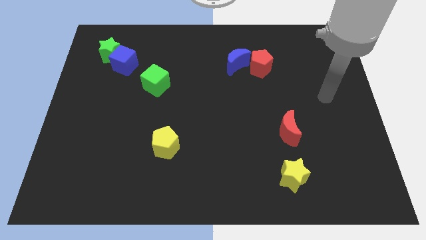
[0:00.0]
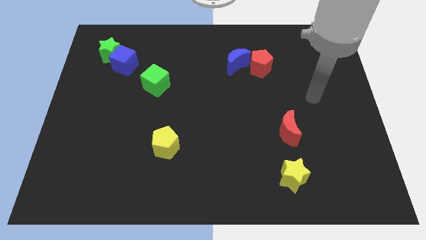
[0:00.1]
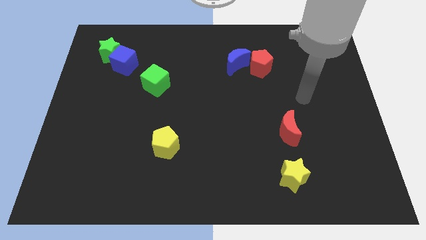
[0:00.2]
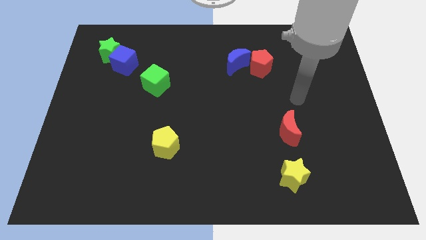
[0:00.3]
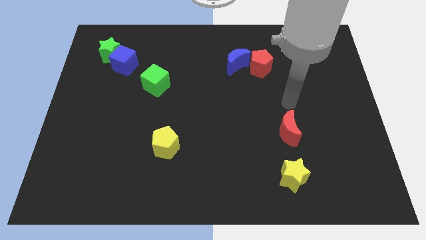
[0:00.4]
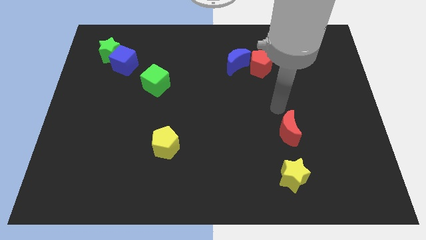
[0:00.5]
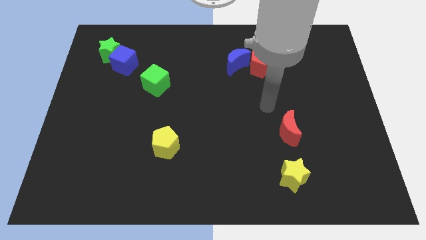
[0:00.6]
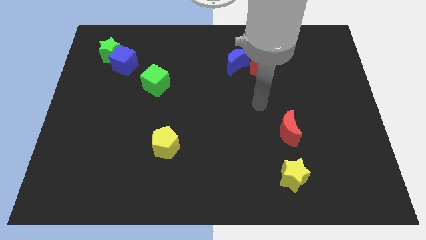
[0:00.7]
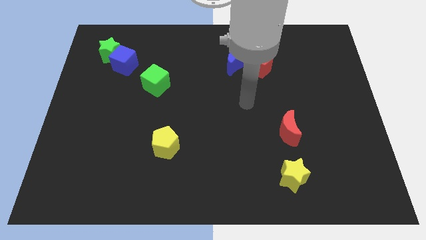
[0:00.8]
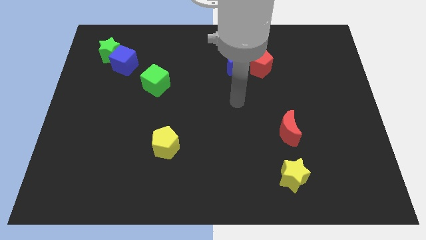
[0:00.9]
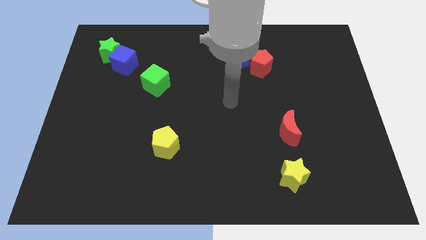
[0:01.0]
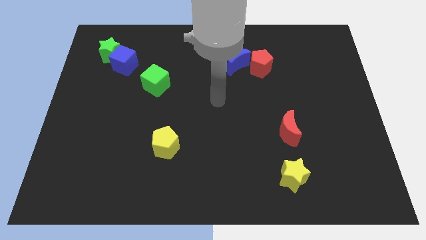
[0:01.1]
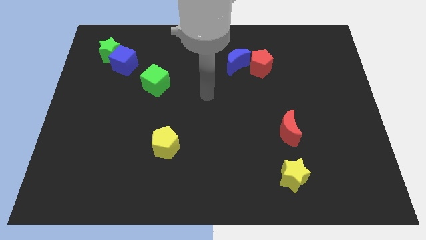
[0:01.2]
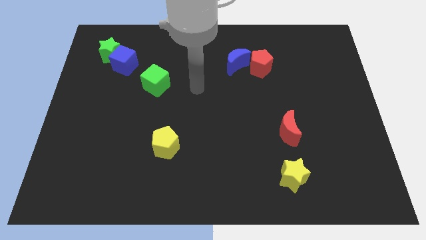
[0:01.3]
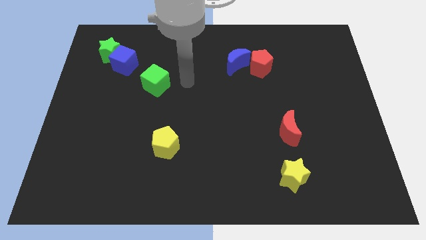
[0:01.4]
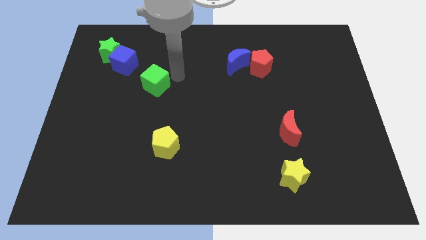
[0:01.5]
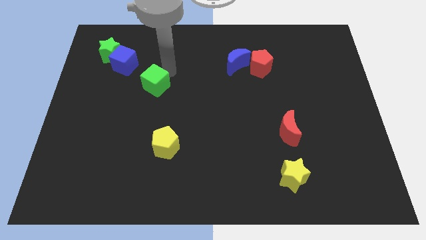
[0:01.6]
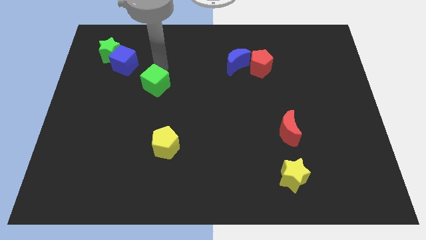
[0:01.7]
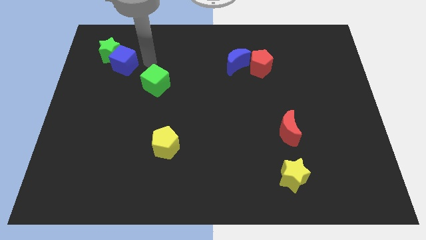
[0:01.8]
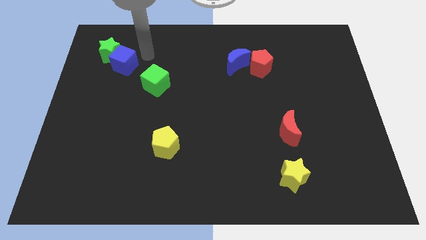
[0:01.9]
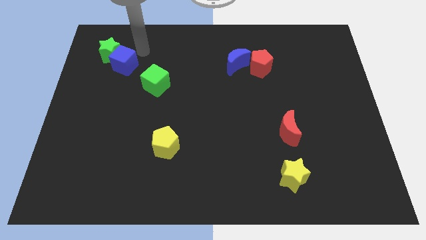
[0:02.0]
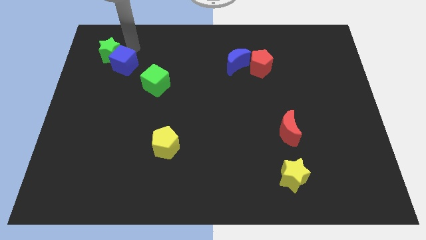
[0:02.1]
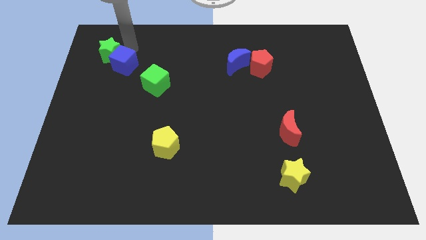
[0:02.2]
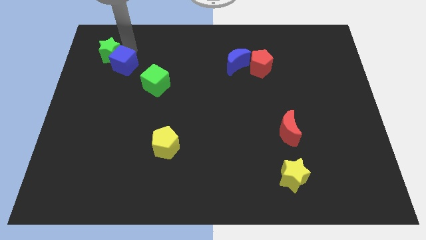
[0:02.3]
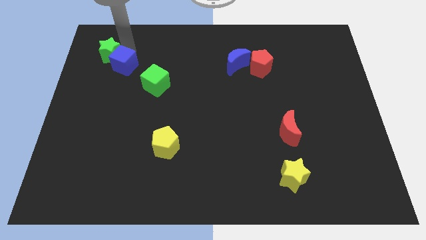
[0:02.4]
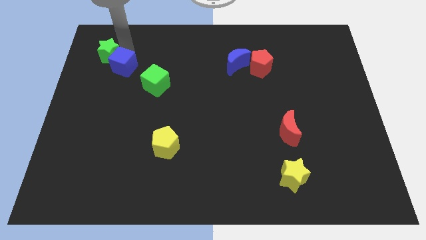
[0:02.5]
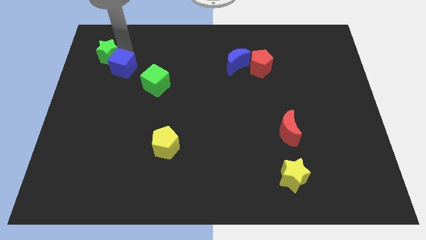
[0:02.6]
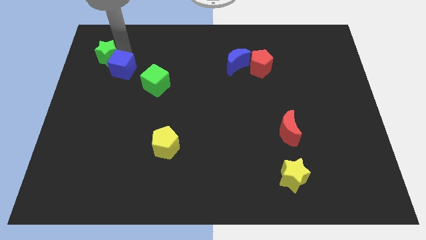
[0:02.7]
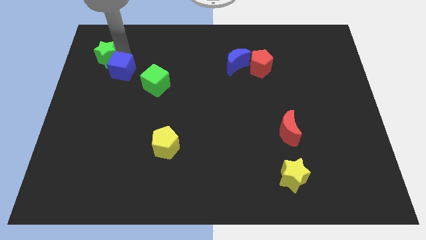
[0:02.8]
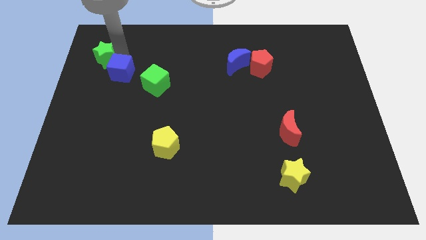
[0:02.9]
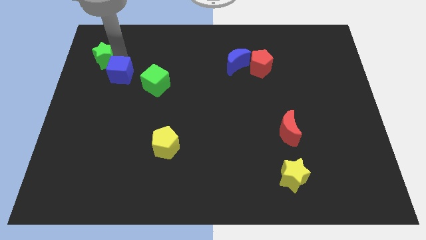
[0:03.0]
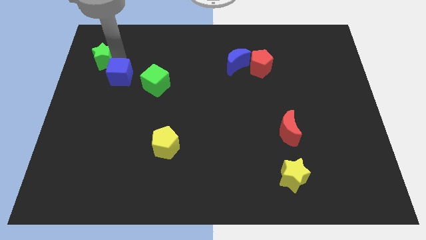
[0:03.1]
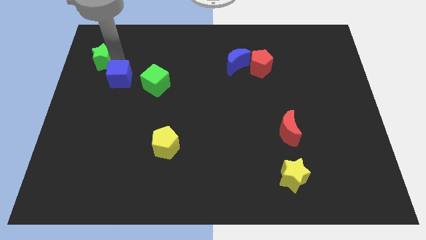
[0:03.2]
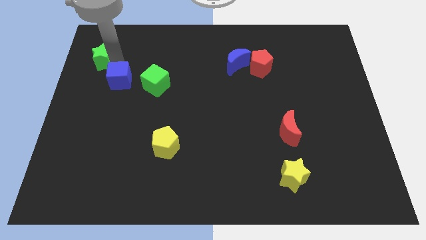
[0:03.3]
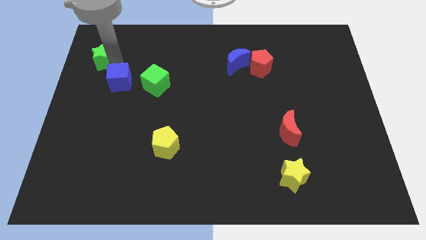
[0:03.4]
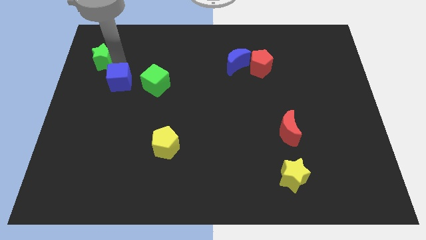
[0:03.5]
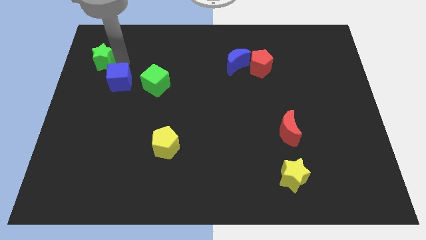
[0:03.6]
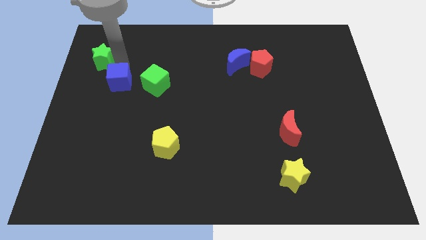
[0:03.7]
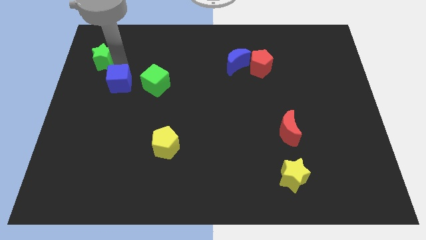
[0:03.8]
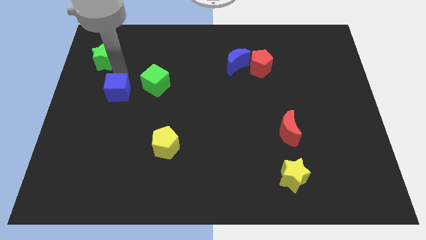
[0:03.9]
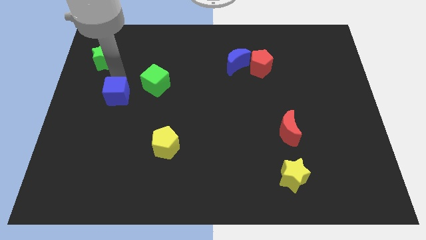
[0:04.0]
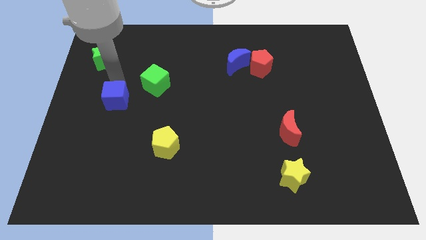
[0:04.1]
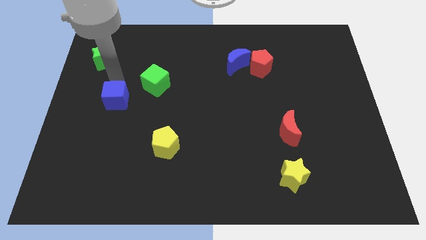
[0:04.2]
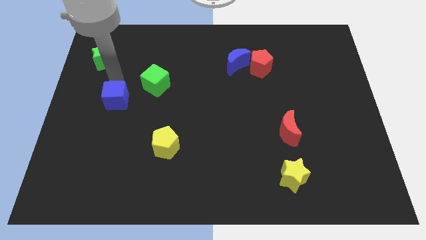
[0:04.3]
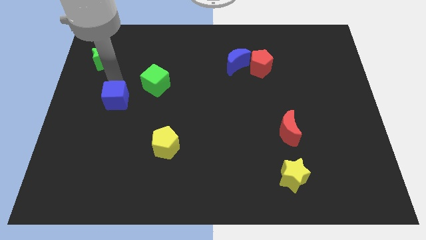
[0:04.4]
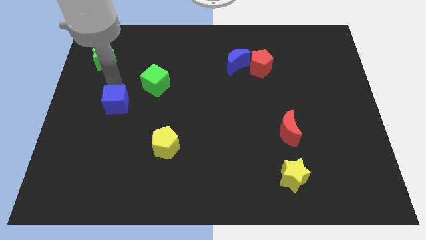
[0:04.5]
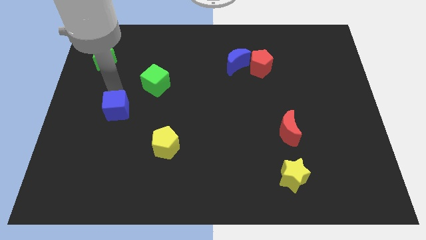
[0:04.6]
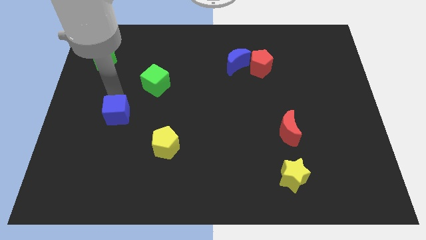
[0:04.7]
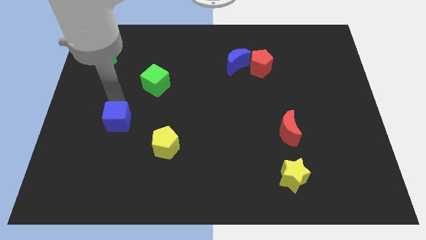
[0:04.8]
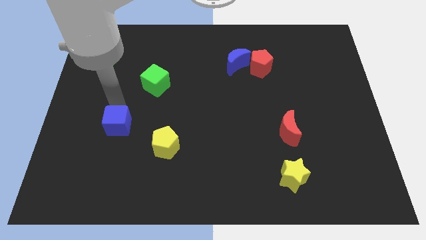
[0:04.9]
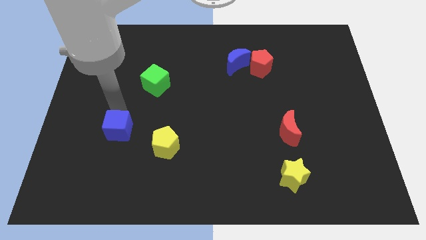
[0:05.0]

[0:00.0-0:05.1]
slide the blue cube downwards

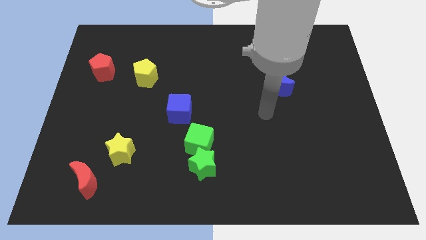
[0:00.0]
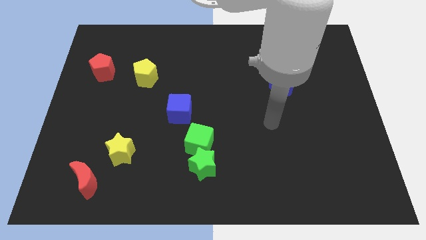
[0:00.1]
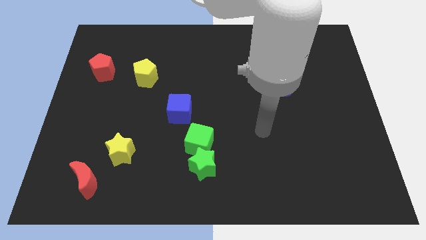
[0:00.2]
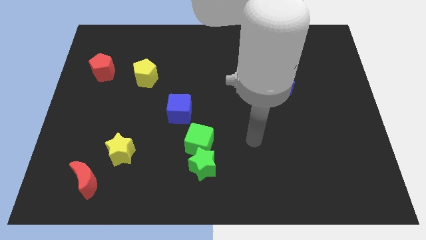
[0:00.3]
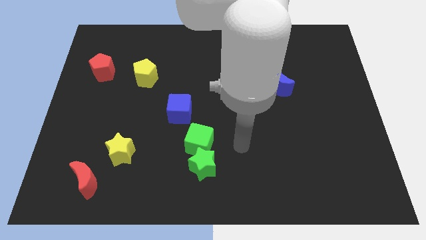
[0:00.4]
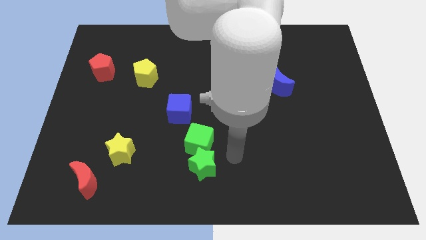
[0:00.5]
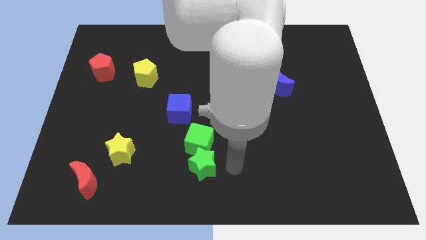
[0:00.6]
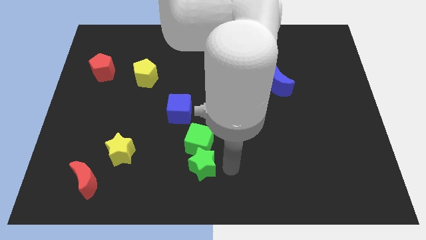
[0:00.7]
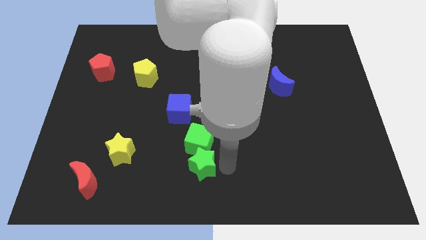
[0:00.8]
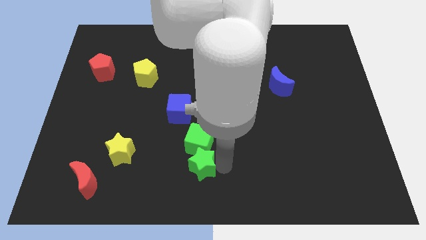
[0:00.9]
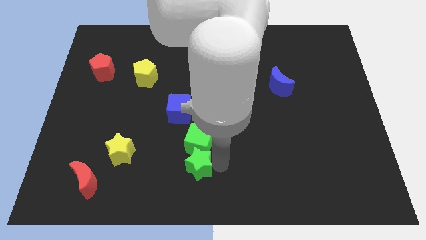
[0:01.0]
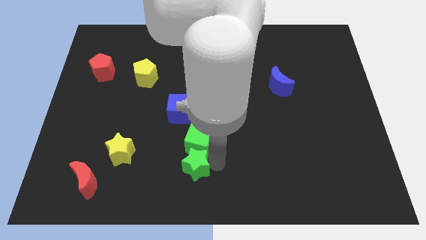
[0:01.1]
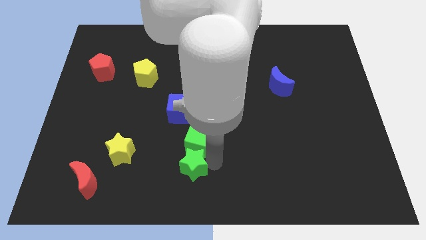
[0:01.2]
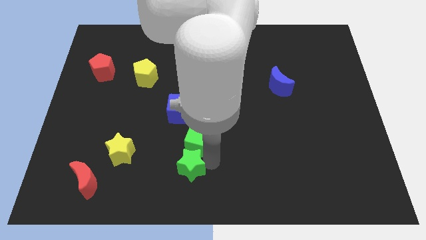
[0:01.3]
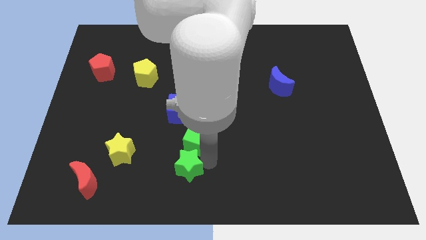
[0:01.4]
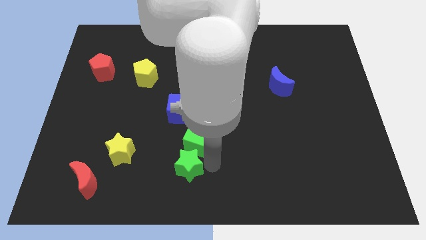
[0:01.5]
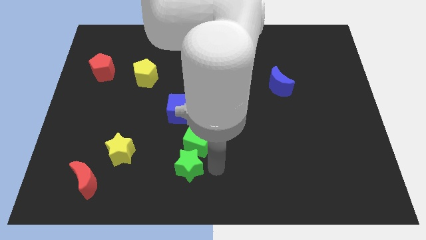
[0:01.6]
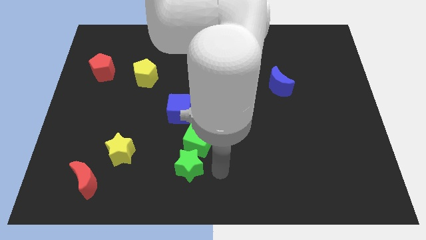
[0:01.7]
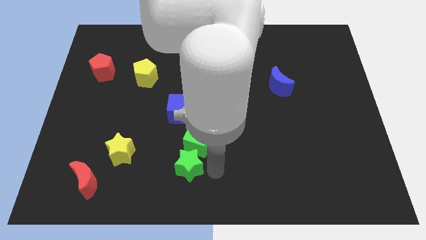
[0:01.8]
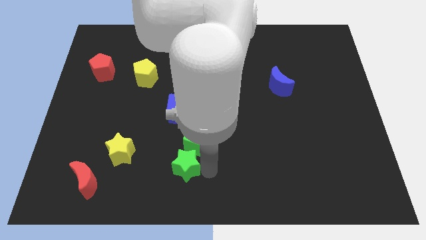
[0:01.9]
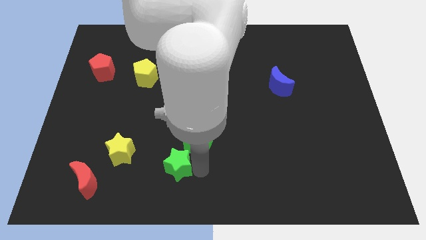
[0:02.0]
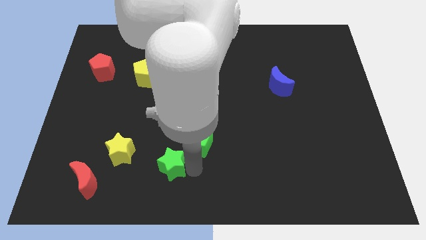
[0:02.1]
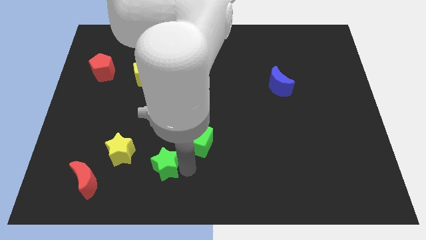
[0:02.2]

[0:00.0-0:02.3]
slide the green star left a little

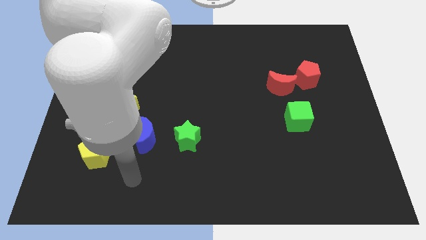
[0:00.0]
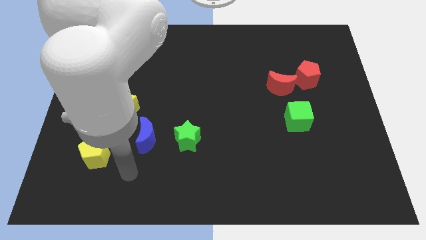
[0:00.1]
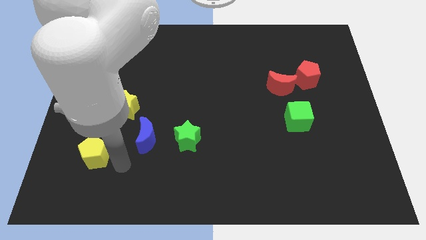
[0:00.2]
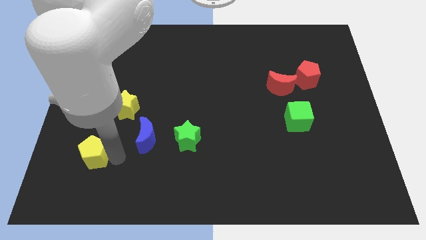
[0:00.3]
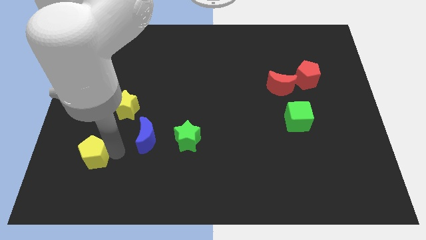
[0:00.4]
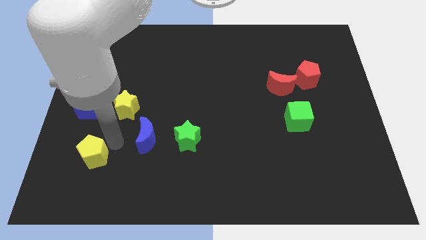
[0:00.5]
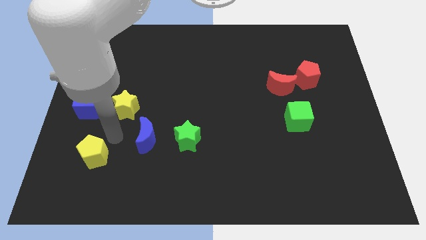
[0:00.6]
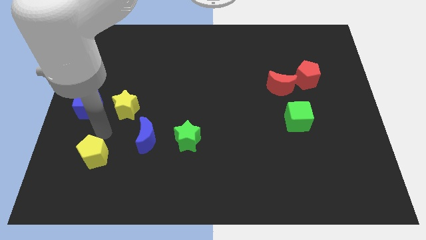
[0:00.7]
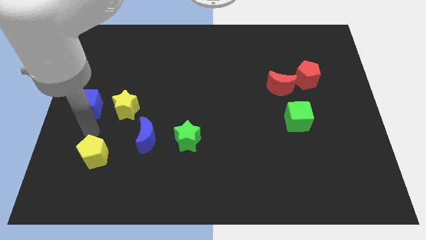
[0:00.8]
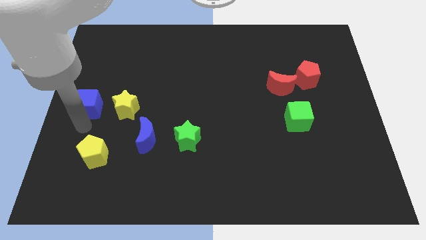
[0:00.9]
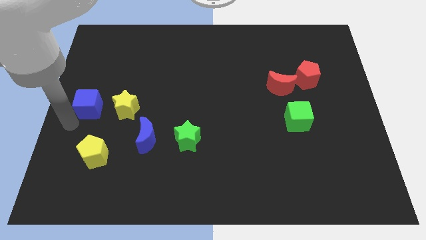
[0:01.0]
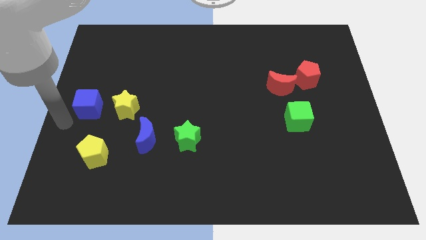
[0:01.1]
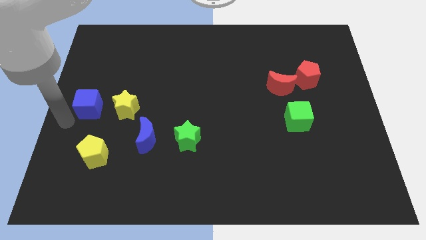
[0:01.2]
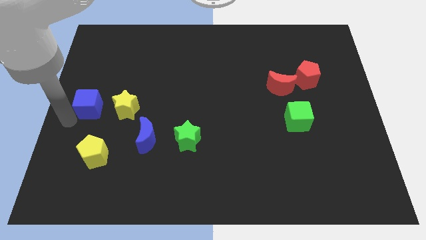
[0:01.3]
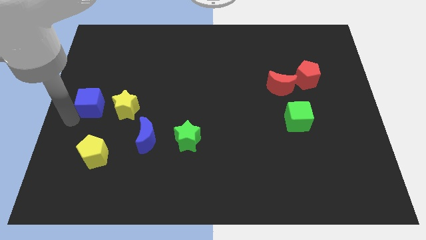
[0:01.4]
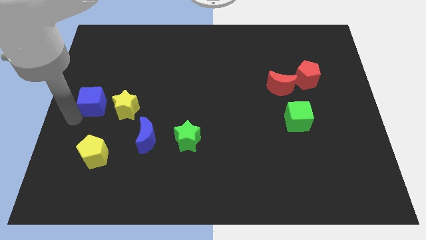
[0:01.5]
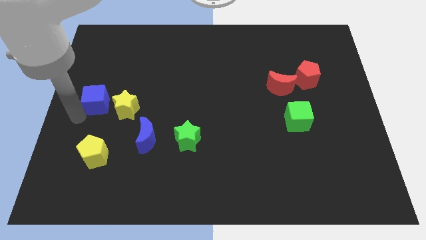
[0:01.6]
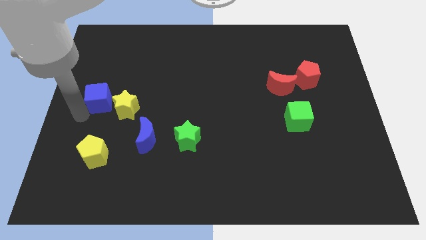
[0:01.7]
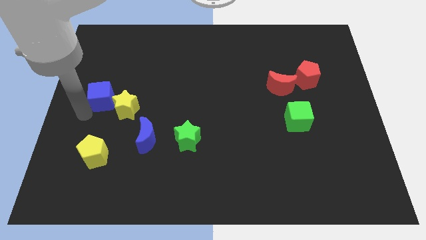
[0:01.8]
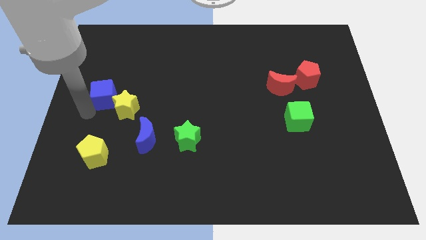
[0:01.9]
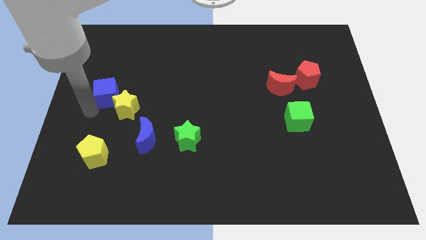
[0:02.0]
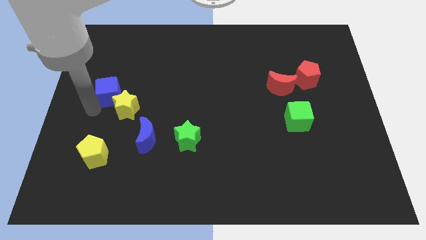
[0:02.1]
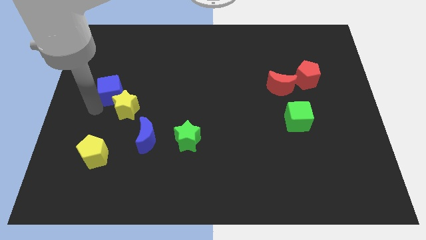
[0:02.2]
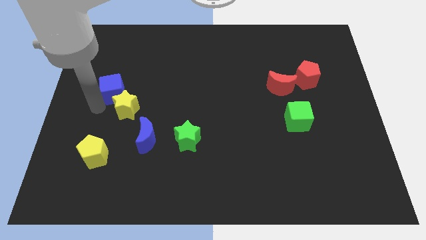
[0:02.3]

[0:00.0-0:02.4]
slide the blue cube slightly upwards and to the right
